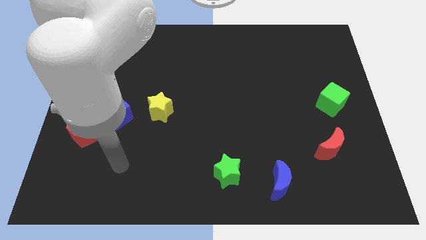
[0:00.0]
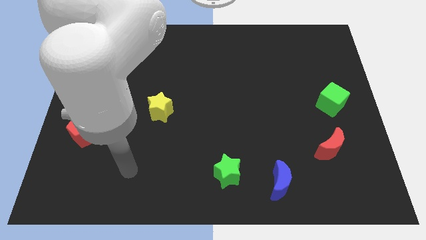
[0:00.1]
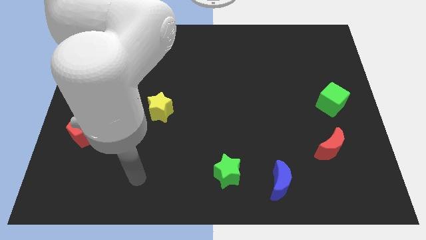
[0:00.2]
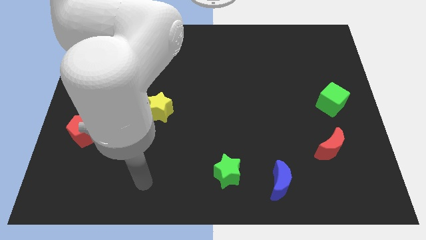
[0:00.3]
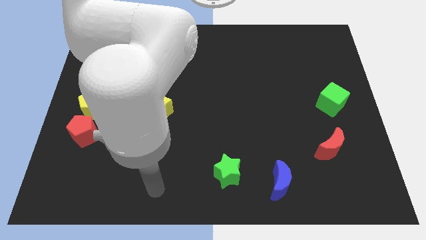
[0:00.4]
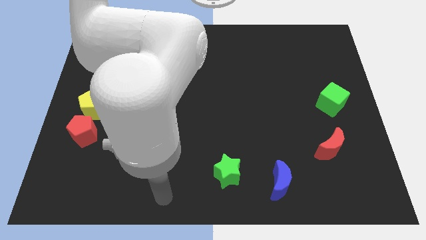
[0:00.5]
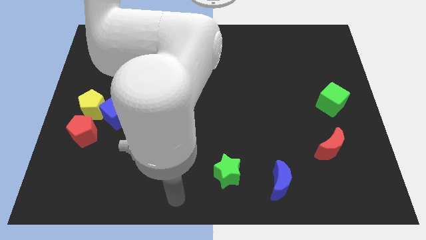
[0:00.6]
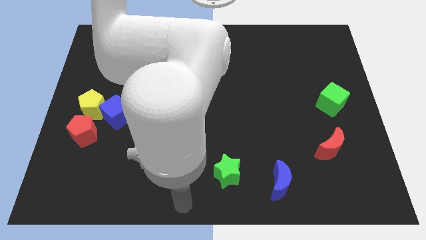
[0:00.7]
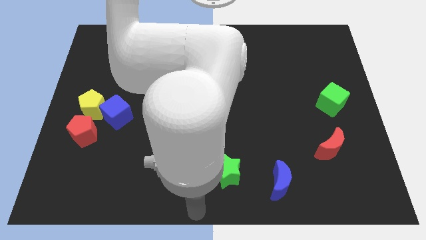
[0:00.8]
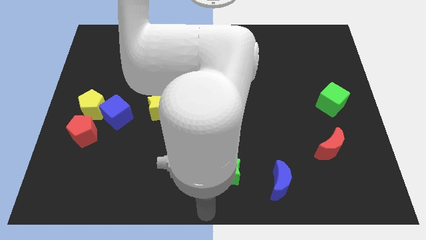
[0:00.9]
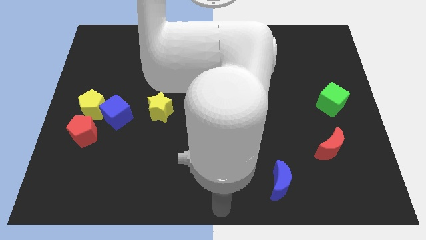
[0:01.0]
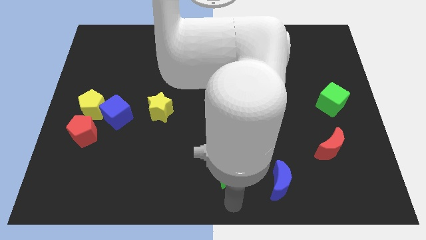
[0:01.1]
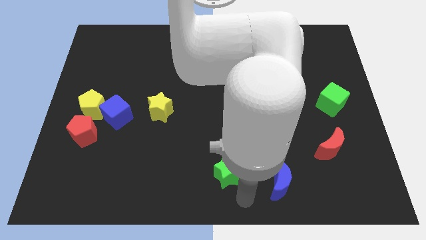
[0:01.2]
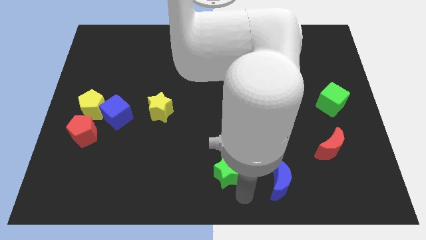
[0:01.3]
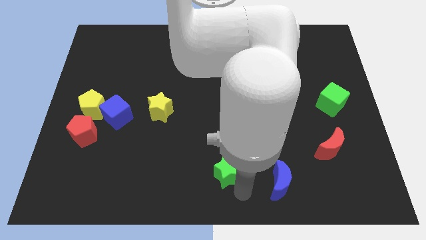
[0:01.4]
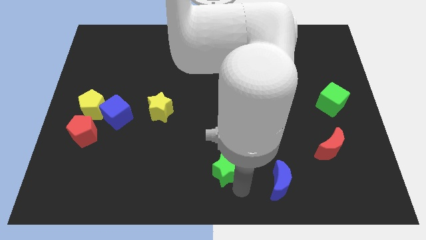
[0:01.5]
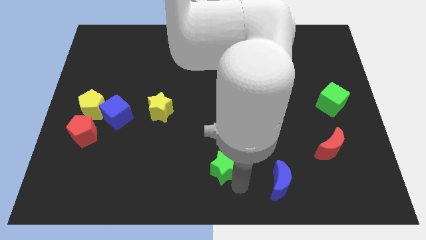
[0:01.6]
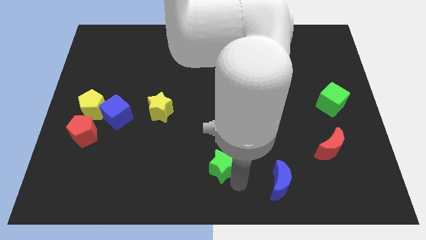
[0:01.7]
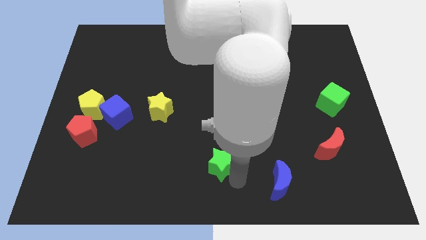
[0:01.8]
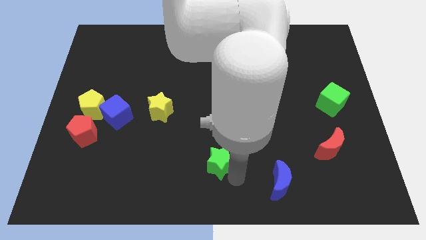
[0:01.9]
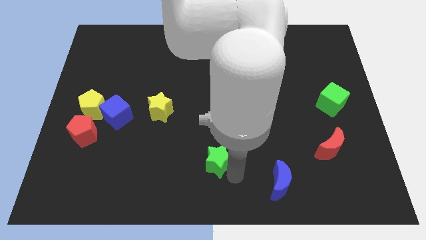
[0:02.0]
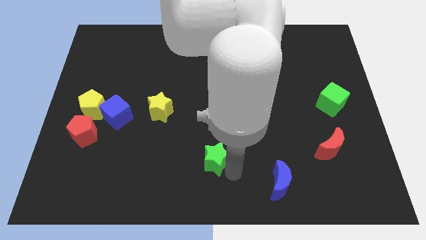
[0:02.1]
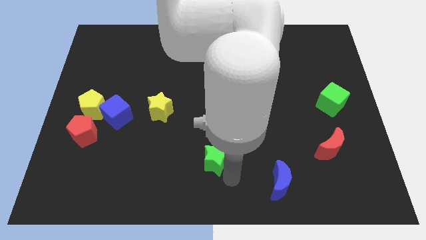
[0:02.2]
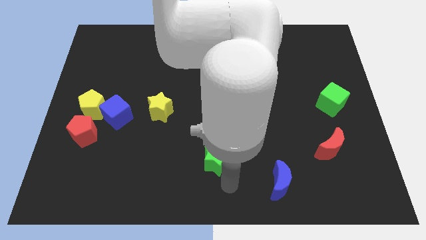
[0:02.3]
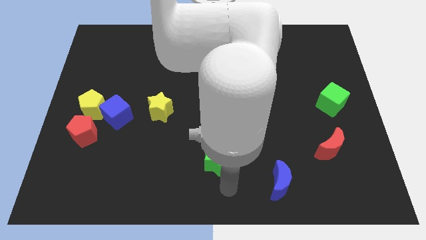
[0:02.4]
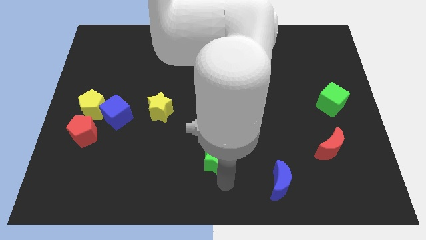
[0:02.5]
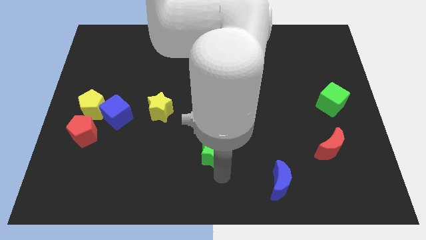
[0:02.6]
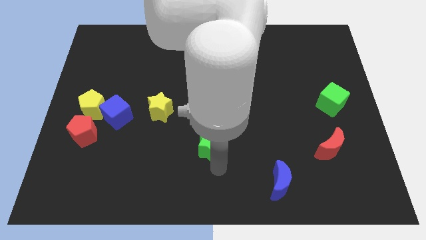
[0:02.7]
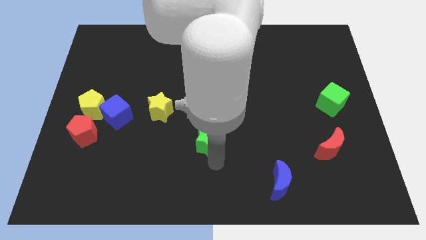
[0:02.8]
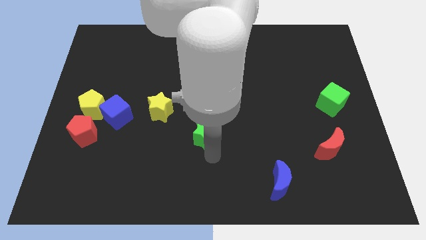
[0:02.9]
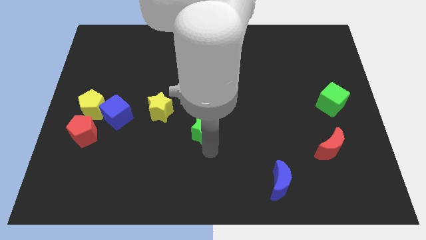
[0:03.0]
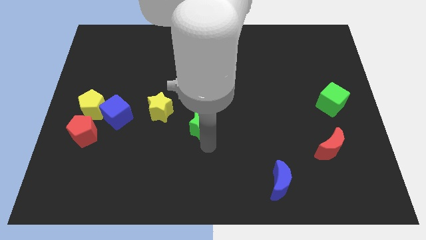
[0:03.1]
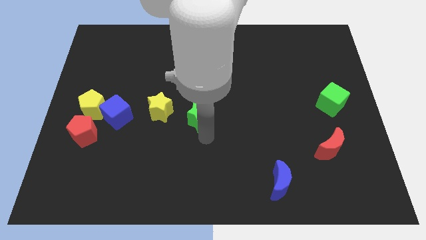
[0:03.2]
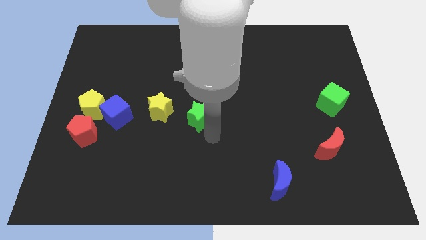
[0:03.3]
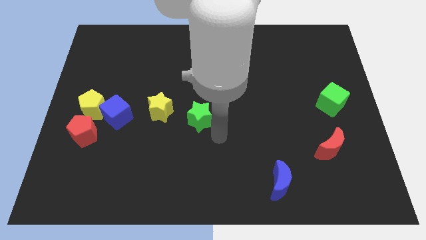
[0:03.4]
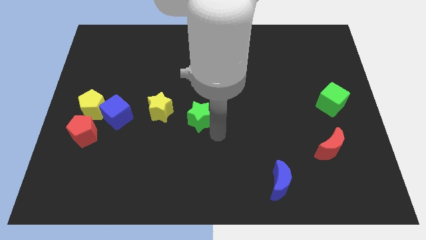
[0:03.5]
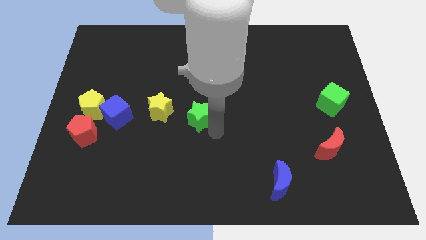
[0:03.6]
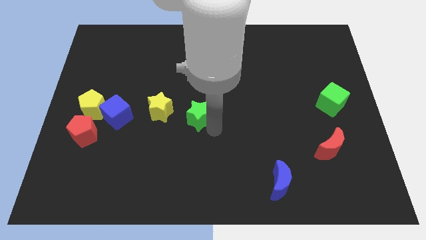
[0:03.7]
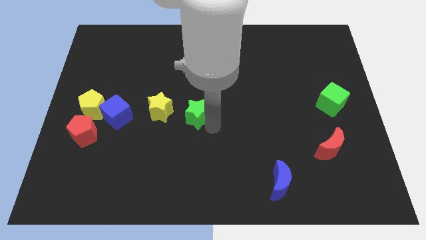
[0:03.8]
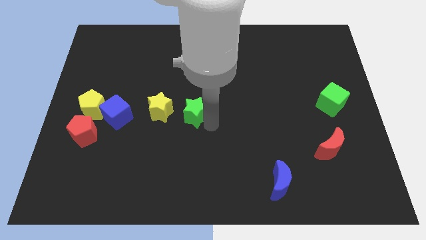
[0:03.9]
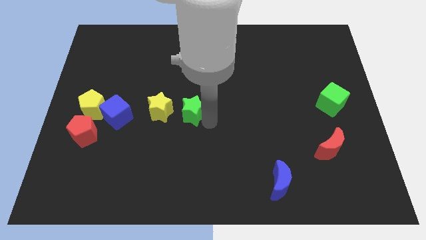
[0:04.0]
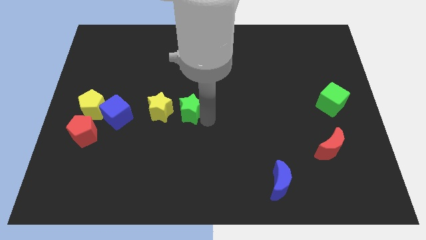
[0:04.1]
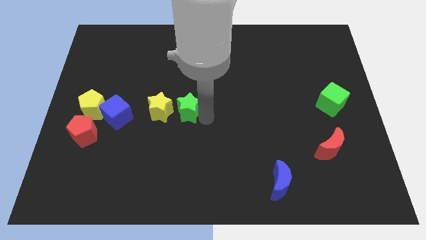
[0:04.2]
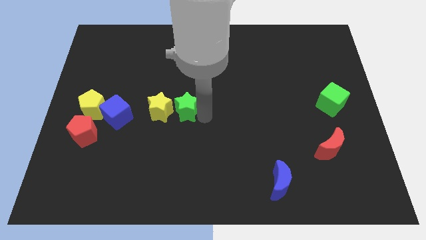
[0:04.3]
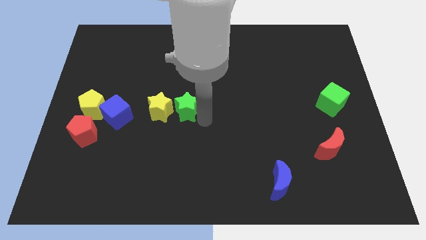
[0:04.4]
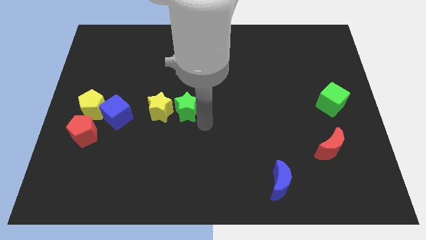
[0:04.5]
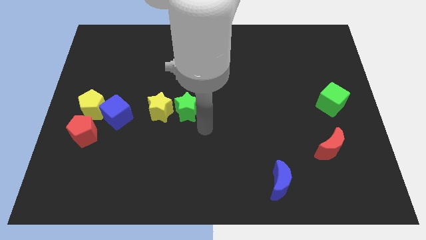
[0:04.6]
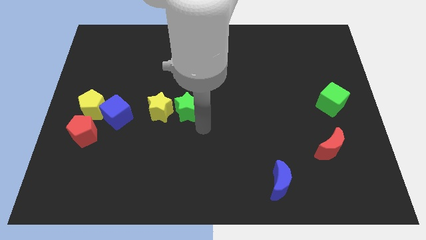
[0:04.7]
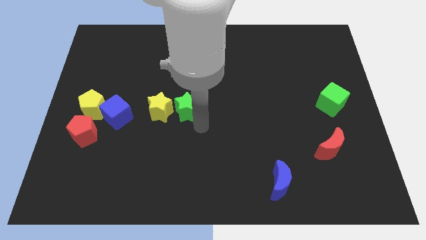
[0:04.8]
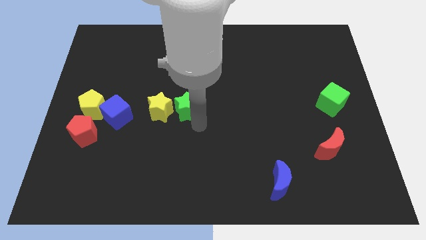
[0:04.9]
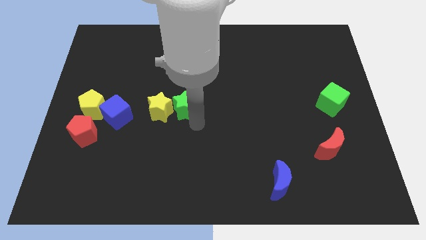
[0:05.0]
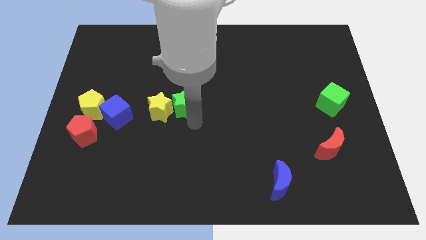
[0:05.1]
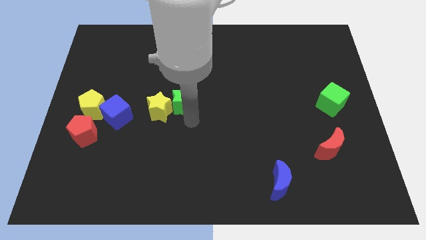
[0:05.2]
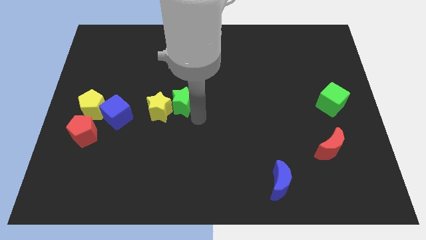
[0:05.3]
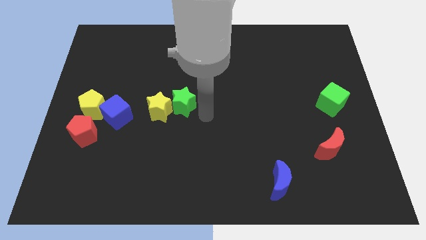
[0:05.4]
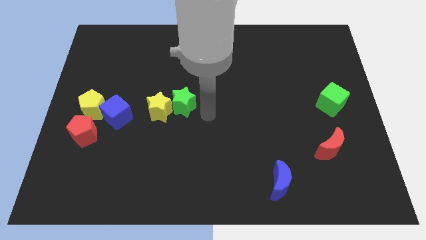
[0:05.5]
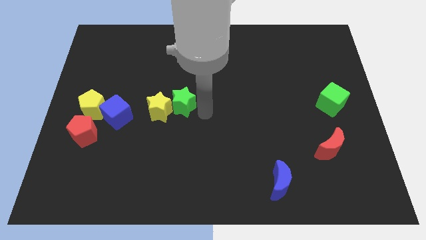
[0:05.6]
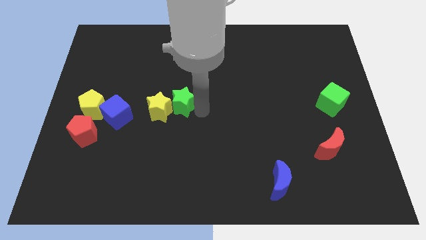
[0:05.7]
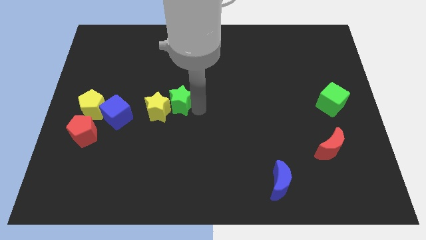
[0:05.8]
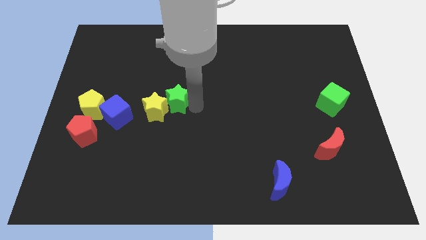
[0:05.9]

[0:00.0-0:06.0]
move the green star up and to the left

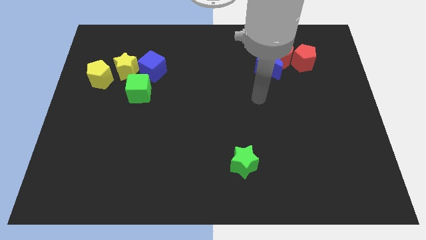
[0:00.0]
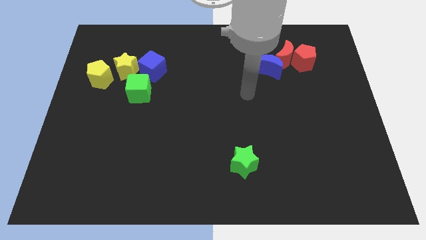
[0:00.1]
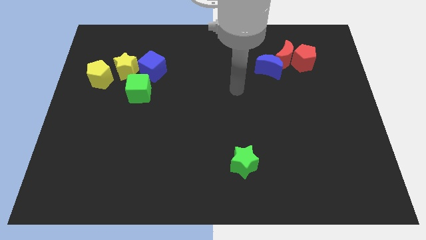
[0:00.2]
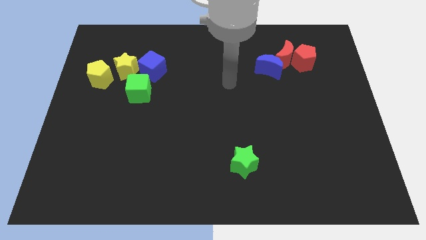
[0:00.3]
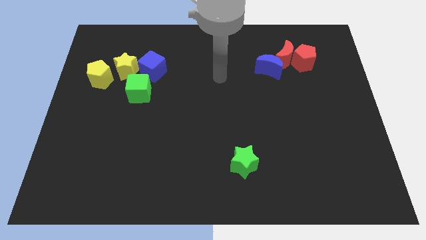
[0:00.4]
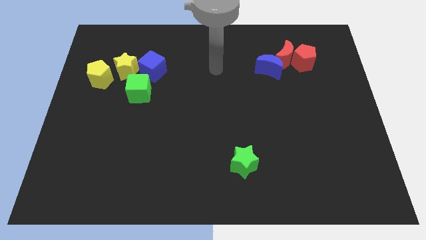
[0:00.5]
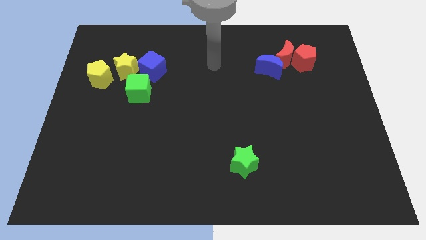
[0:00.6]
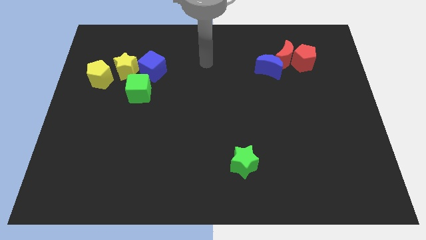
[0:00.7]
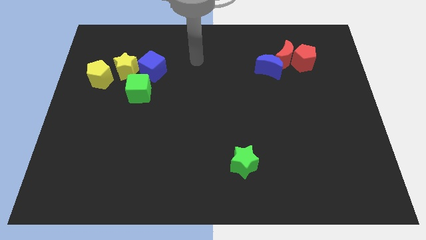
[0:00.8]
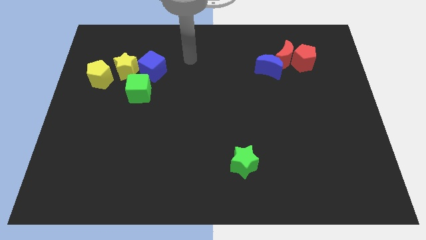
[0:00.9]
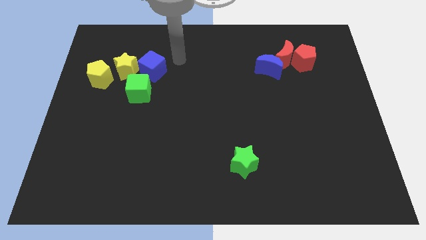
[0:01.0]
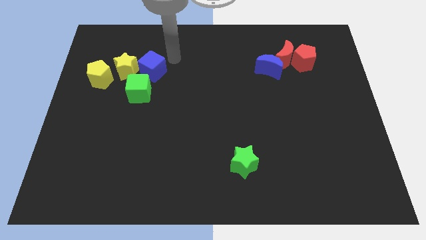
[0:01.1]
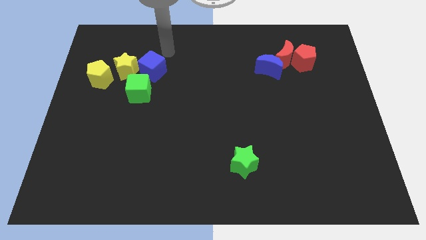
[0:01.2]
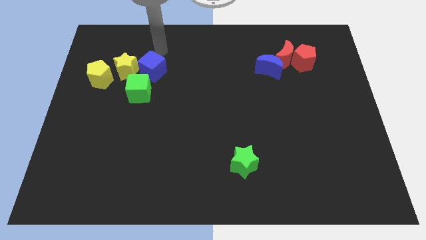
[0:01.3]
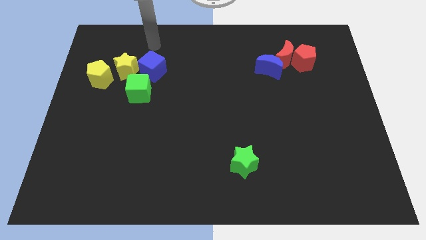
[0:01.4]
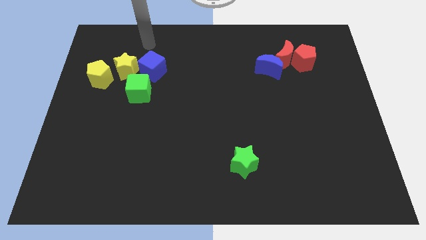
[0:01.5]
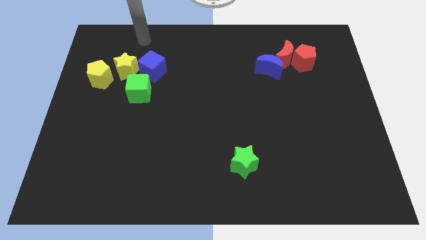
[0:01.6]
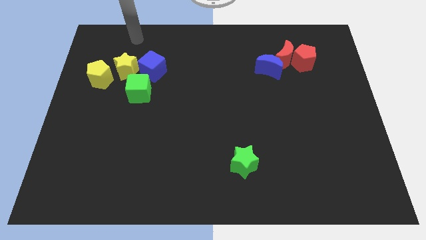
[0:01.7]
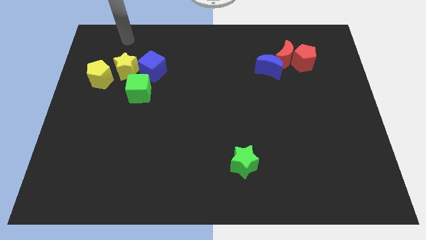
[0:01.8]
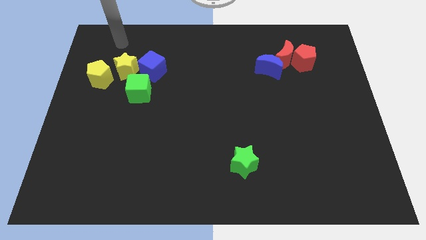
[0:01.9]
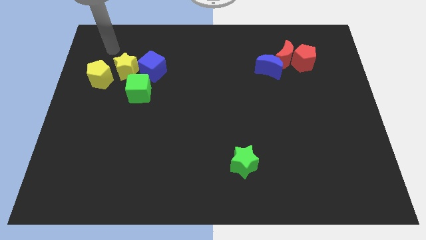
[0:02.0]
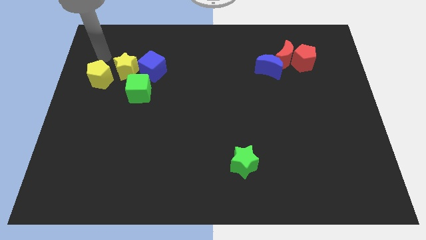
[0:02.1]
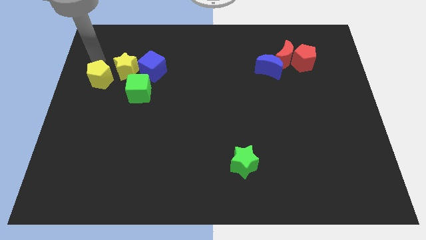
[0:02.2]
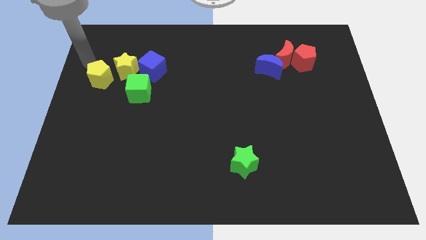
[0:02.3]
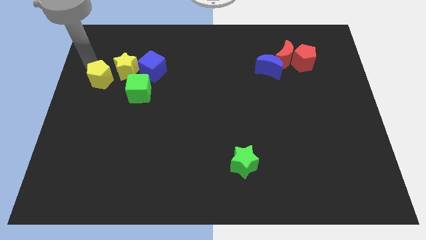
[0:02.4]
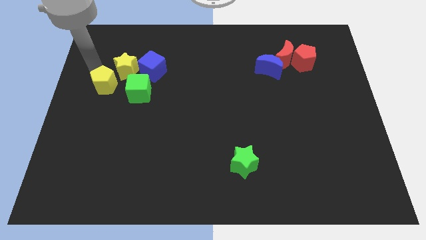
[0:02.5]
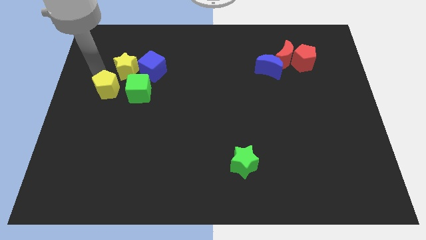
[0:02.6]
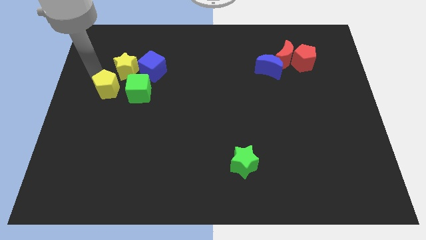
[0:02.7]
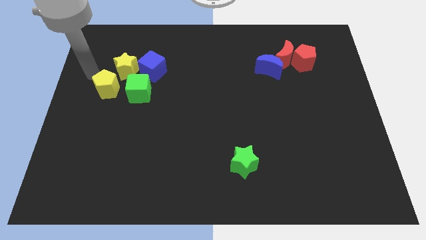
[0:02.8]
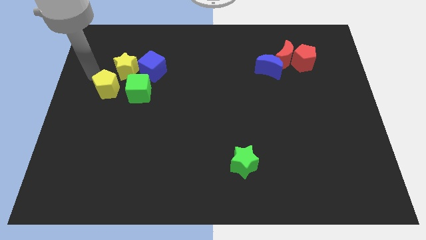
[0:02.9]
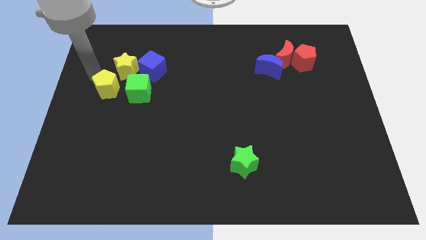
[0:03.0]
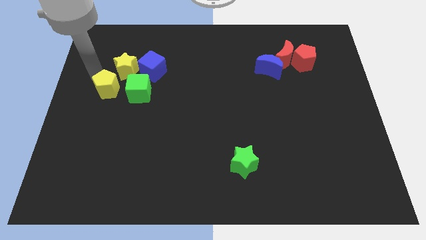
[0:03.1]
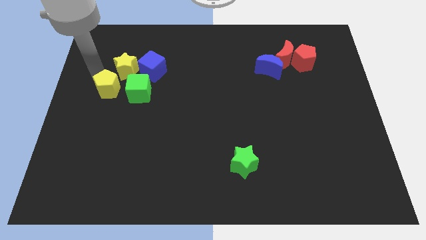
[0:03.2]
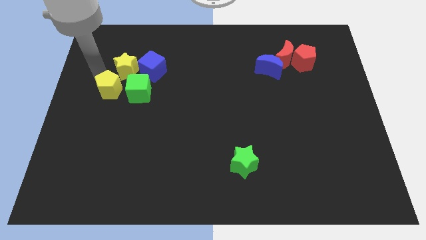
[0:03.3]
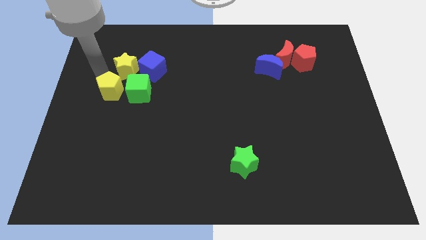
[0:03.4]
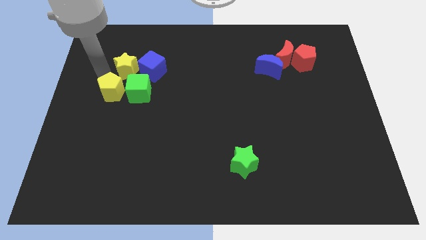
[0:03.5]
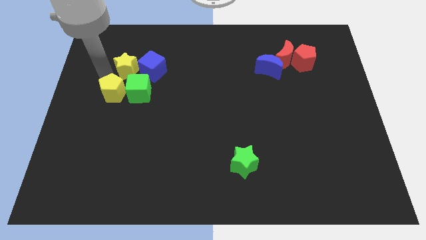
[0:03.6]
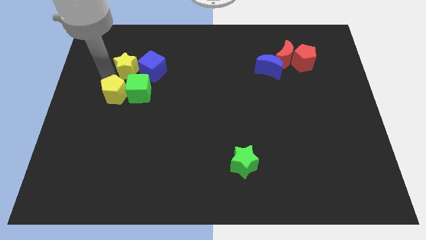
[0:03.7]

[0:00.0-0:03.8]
push the yellow pentagon downwards and to the right diagonally a little
